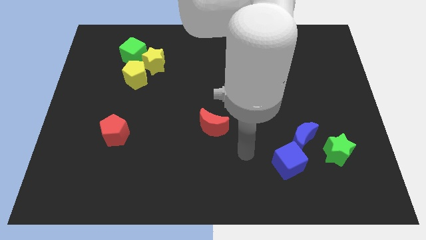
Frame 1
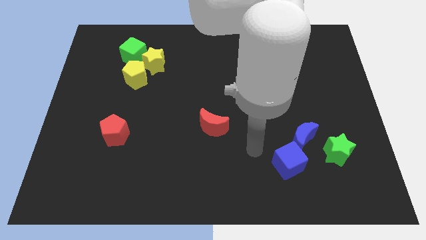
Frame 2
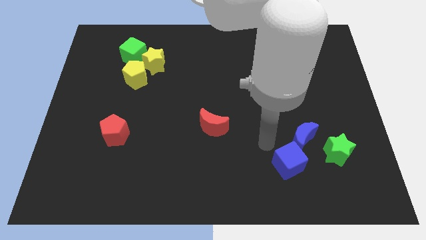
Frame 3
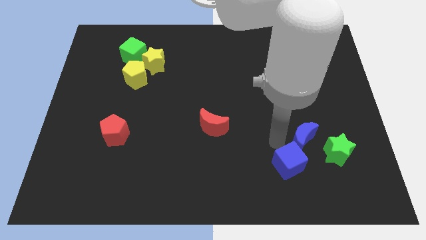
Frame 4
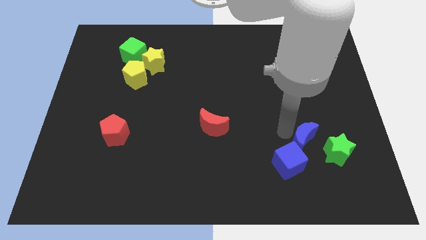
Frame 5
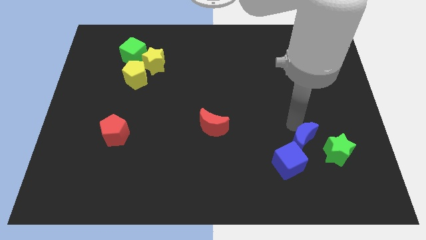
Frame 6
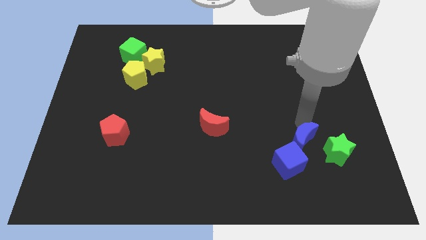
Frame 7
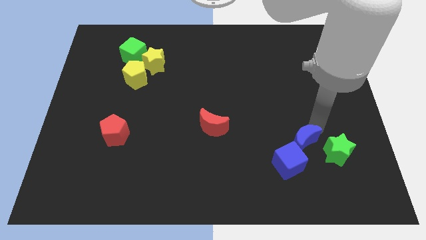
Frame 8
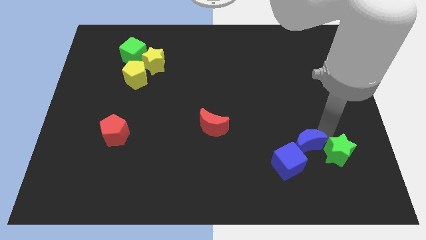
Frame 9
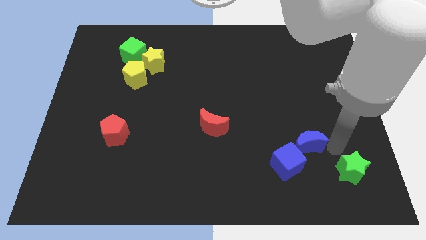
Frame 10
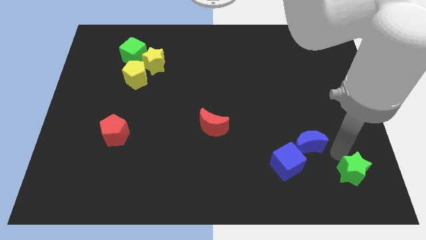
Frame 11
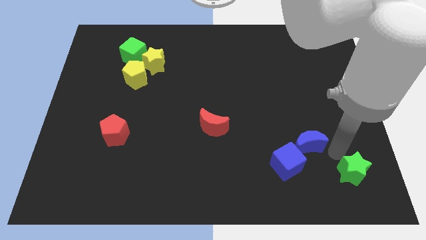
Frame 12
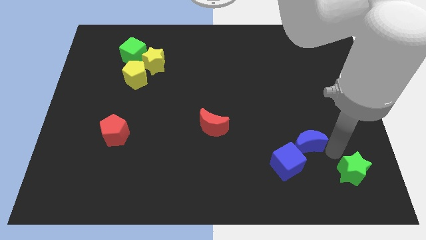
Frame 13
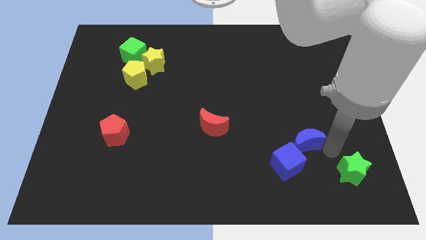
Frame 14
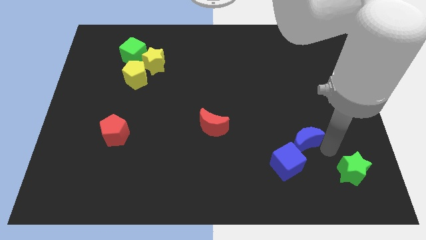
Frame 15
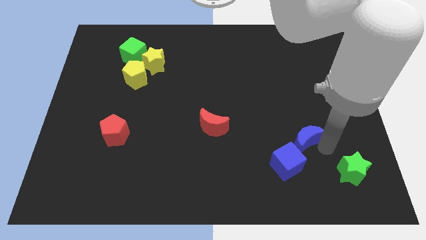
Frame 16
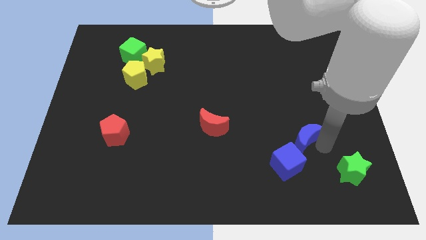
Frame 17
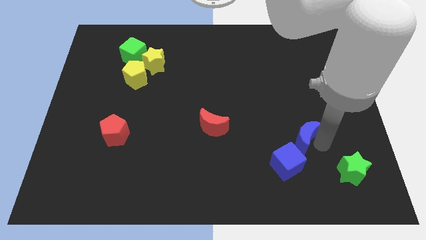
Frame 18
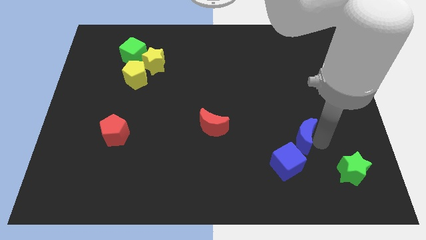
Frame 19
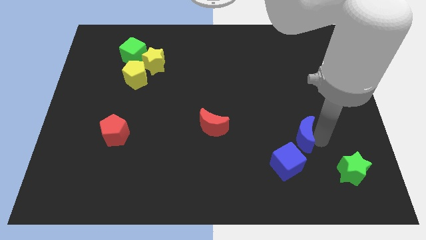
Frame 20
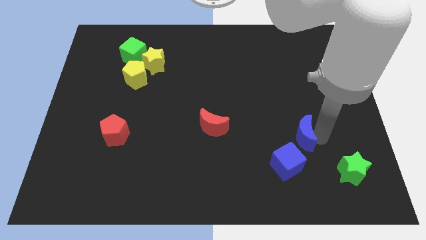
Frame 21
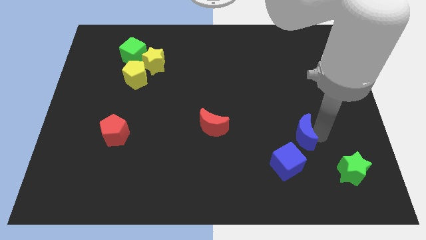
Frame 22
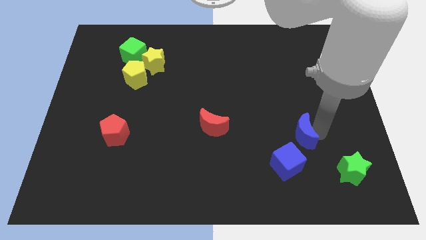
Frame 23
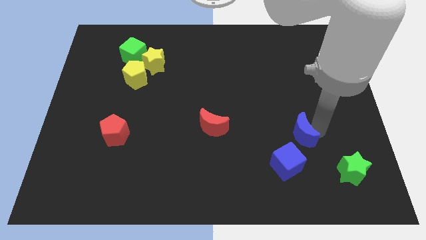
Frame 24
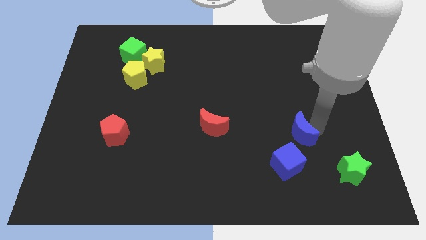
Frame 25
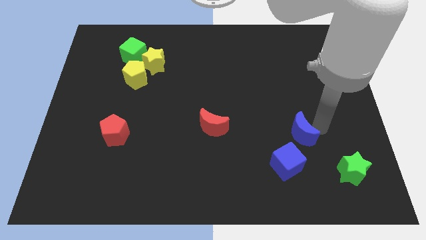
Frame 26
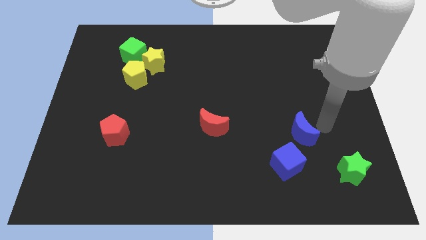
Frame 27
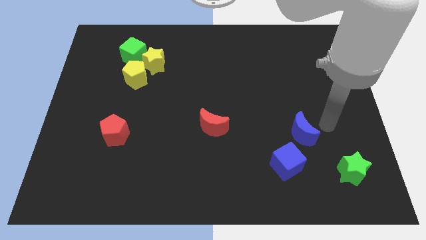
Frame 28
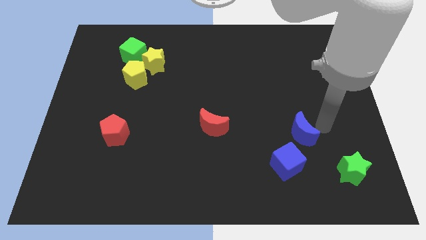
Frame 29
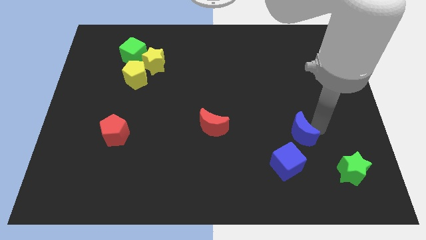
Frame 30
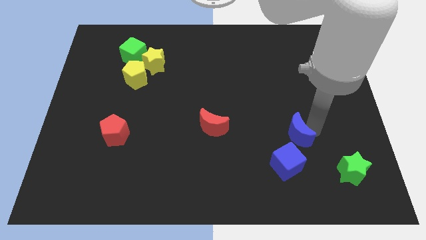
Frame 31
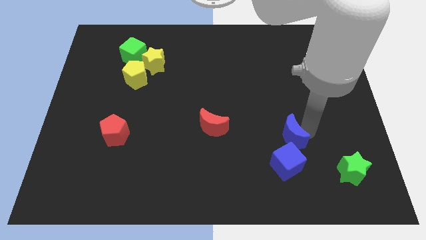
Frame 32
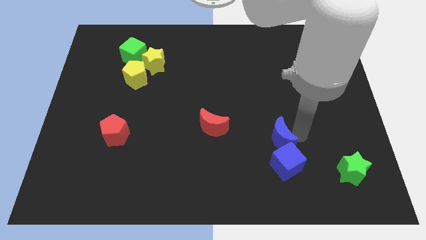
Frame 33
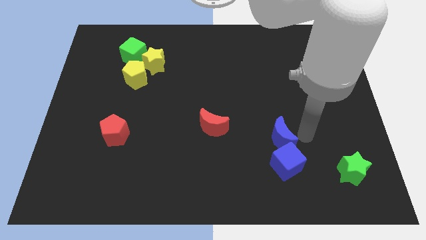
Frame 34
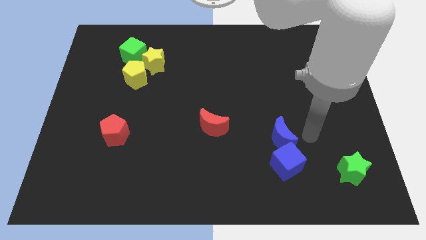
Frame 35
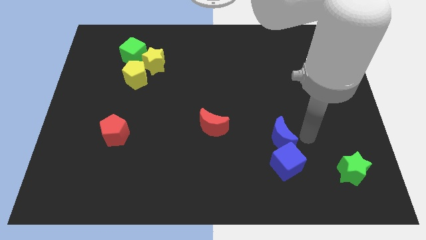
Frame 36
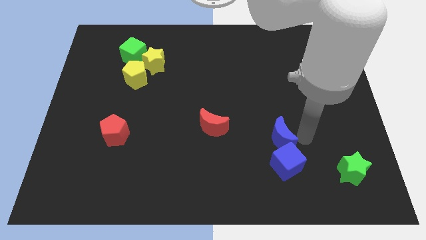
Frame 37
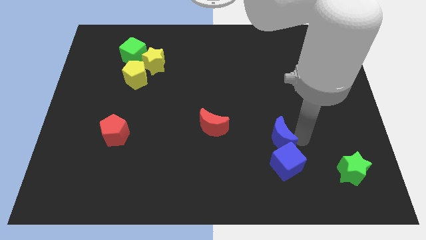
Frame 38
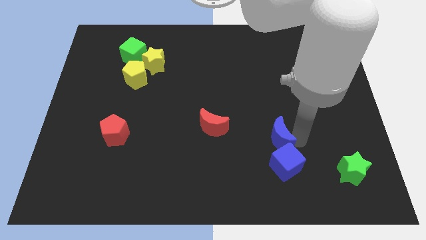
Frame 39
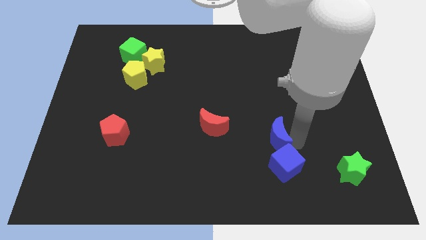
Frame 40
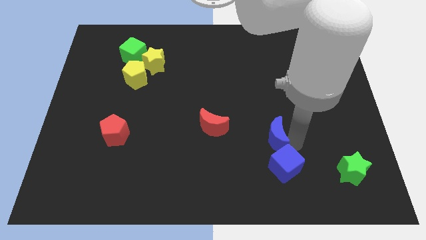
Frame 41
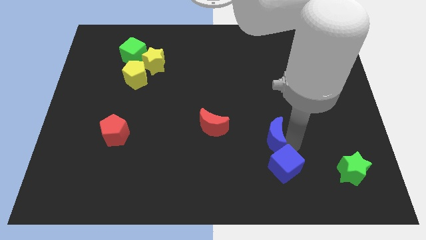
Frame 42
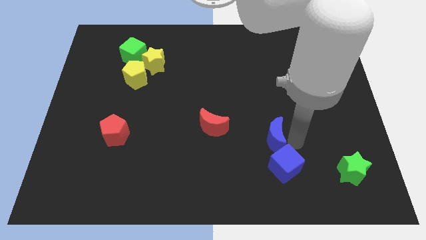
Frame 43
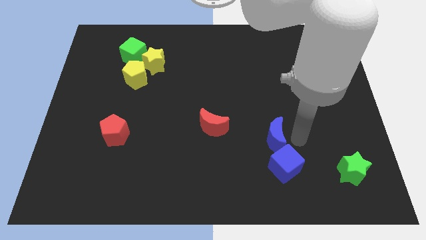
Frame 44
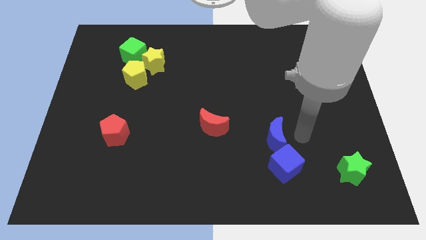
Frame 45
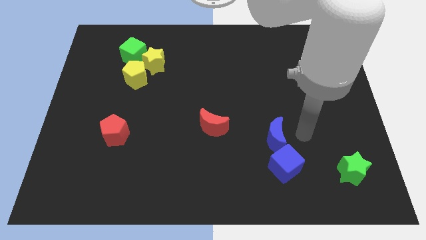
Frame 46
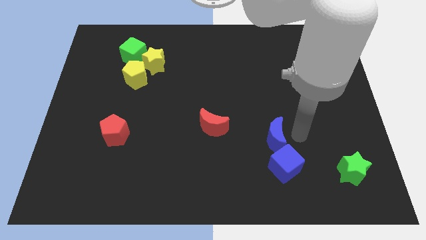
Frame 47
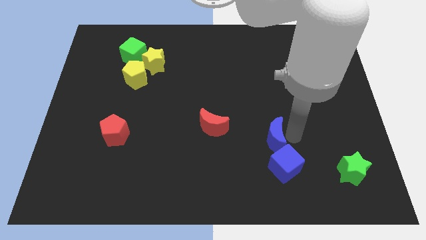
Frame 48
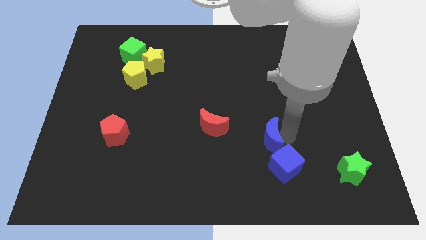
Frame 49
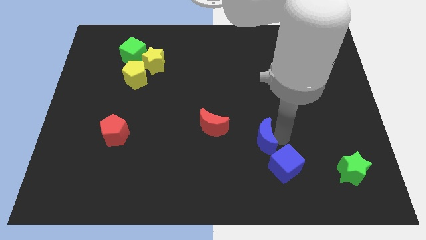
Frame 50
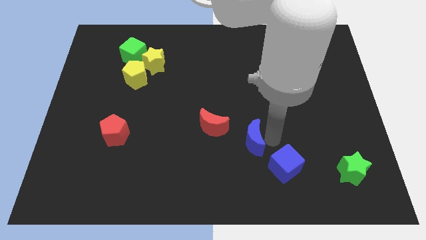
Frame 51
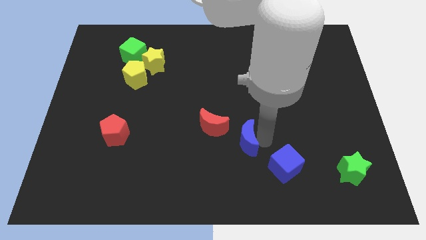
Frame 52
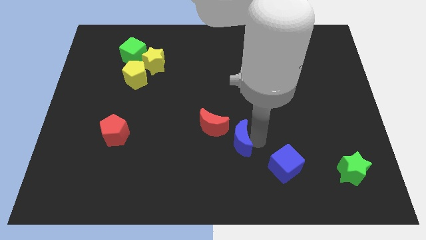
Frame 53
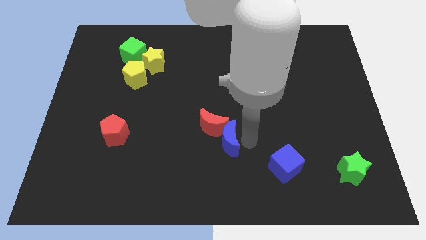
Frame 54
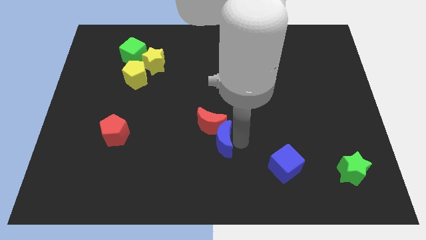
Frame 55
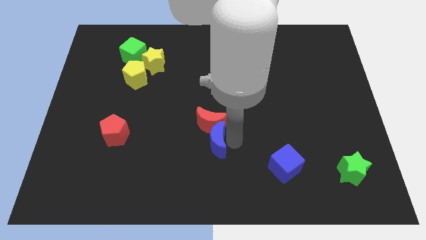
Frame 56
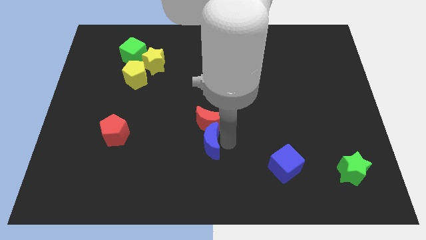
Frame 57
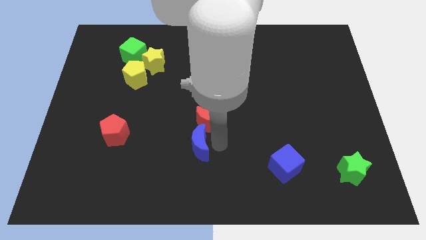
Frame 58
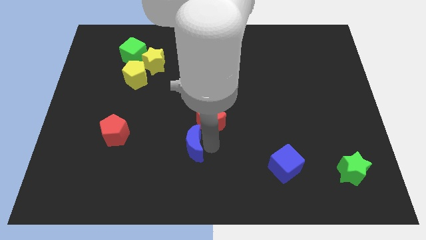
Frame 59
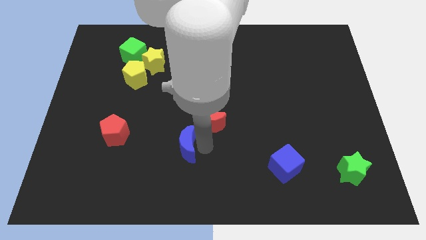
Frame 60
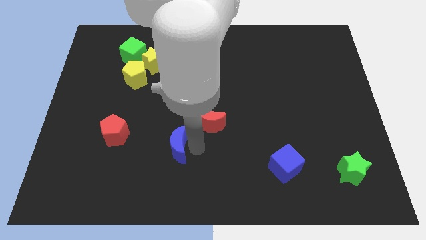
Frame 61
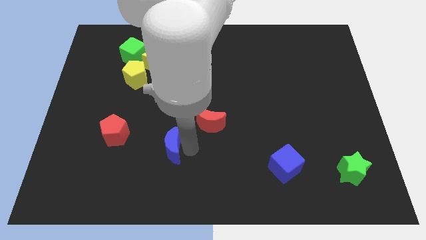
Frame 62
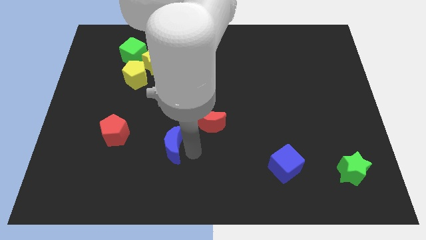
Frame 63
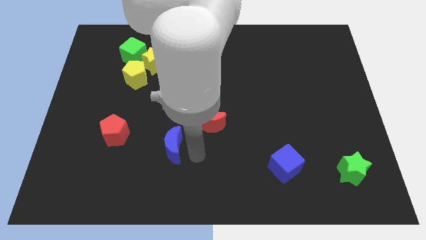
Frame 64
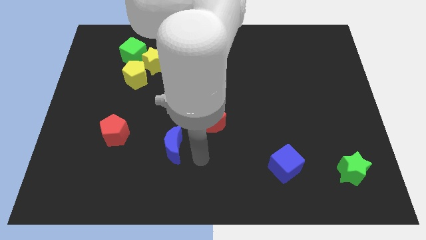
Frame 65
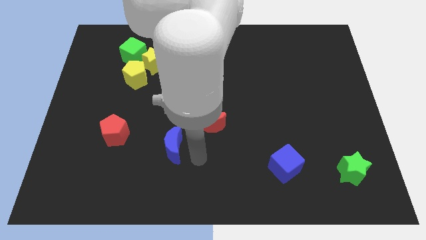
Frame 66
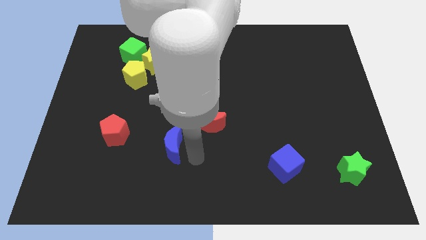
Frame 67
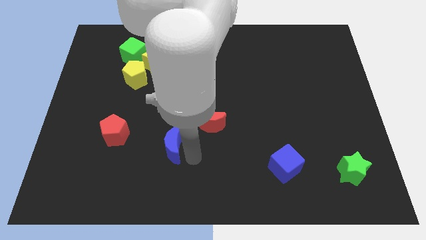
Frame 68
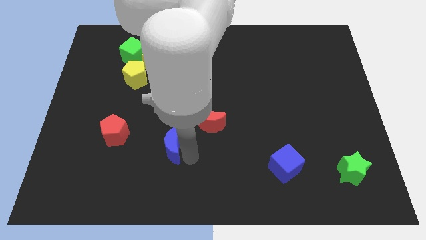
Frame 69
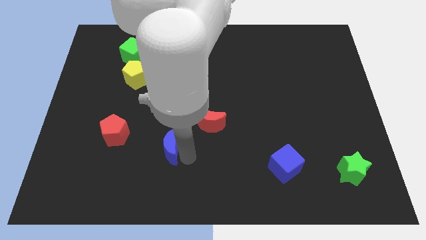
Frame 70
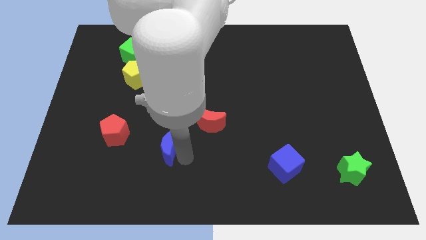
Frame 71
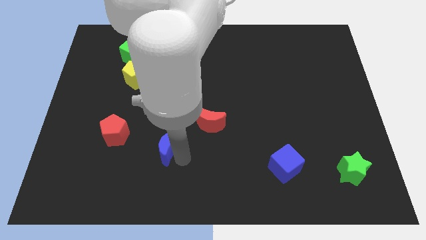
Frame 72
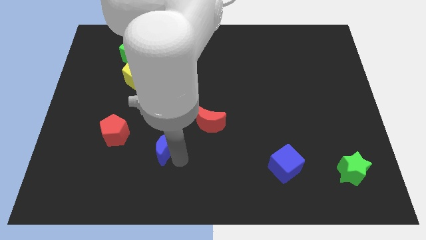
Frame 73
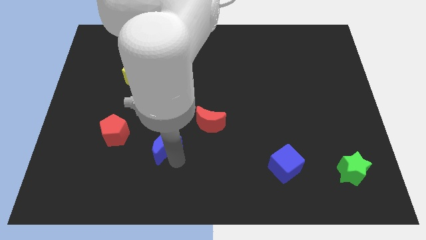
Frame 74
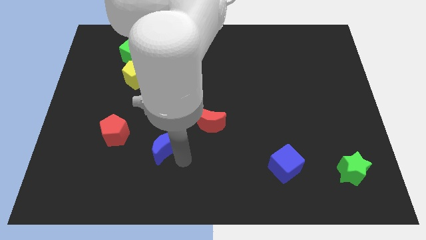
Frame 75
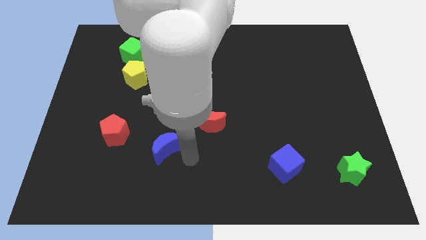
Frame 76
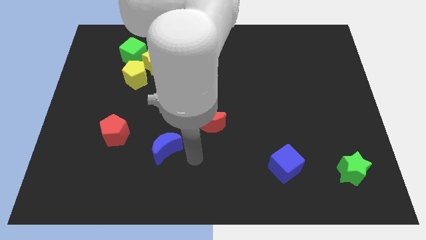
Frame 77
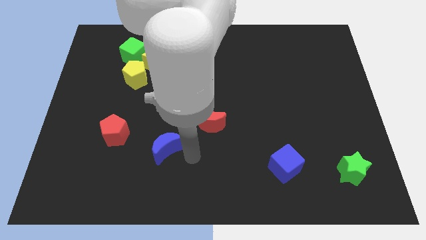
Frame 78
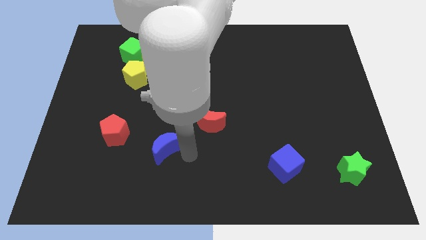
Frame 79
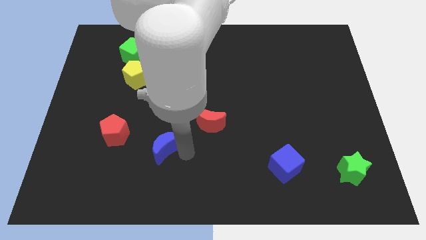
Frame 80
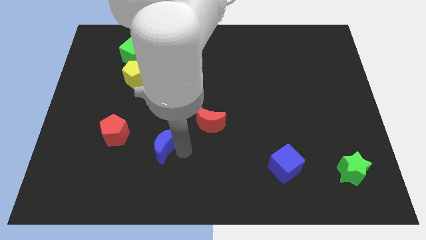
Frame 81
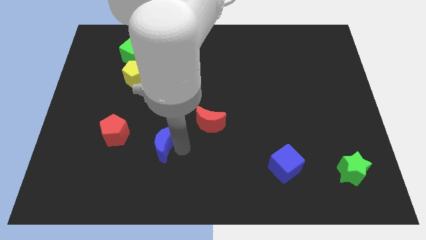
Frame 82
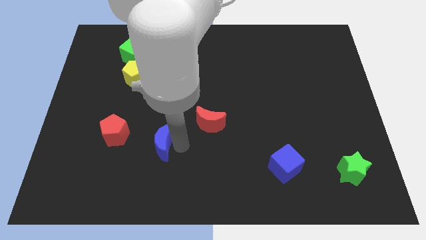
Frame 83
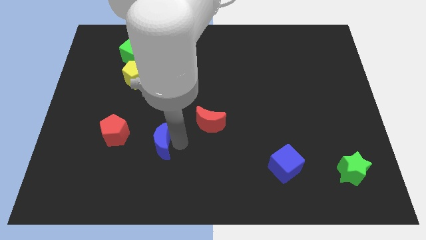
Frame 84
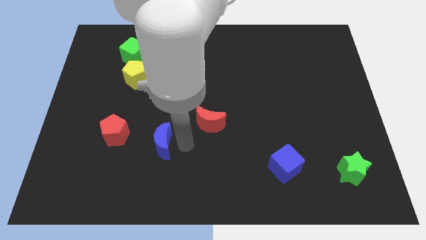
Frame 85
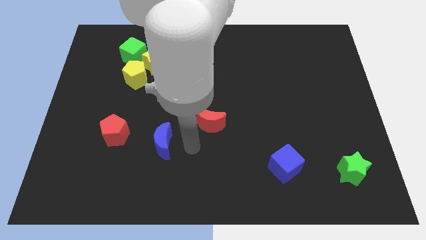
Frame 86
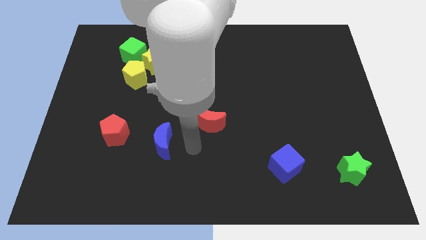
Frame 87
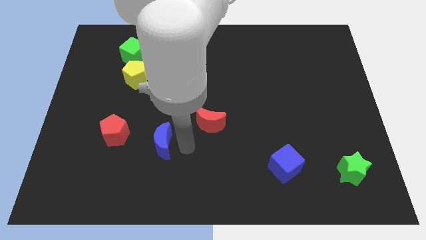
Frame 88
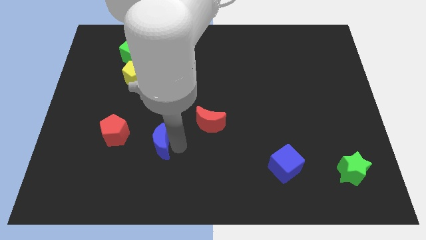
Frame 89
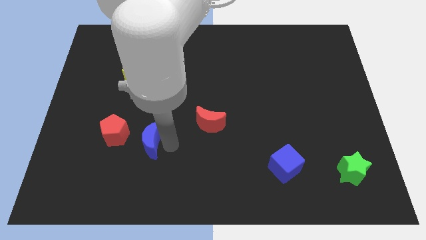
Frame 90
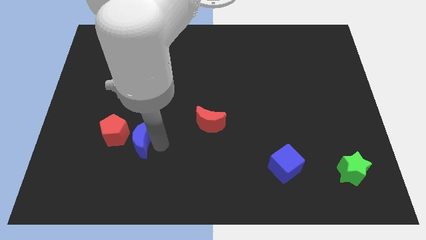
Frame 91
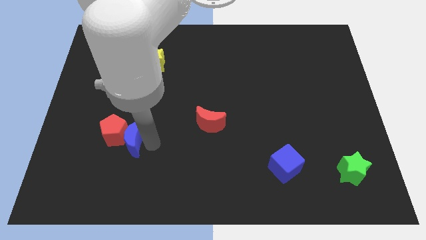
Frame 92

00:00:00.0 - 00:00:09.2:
slide the blue moon towards the red pentagon
